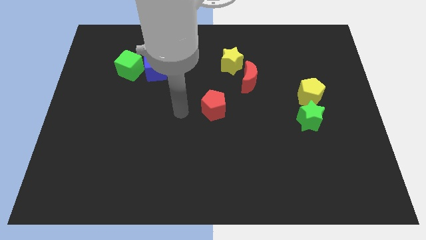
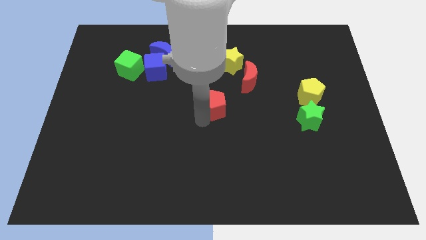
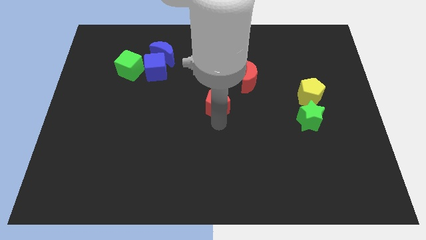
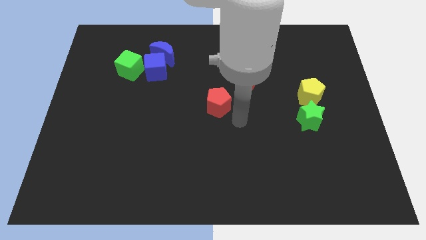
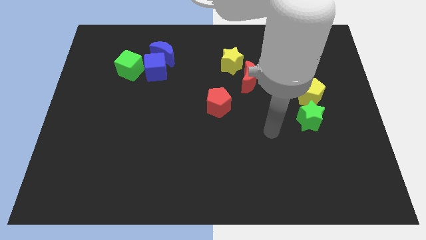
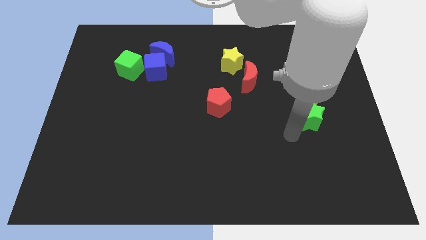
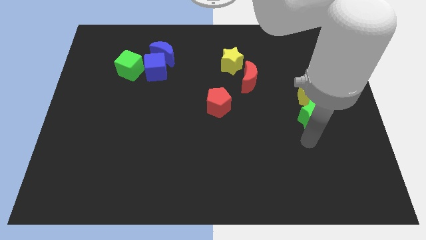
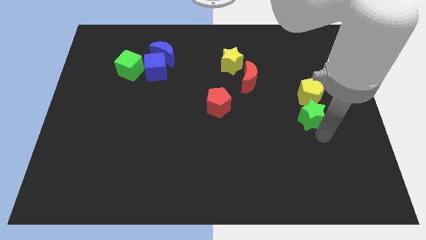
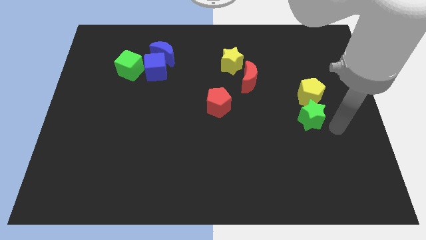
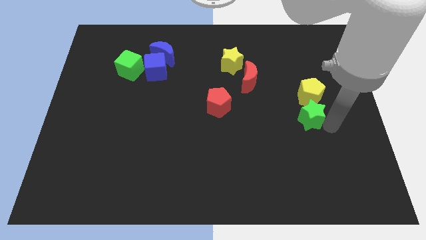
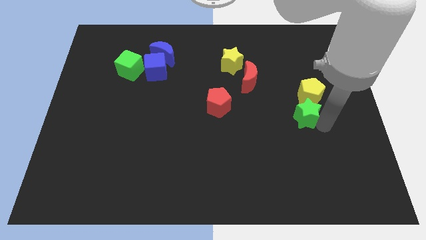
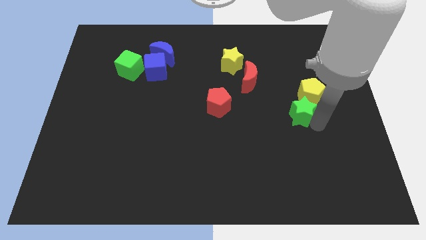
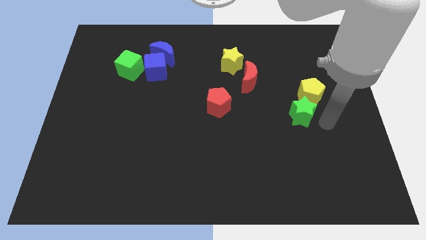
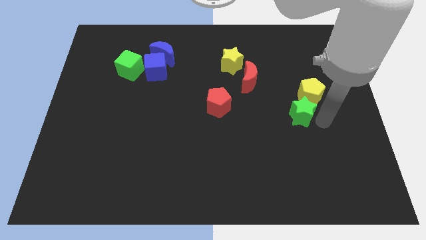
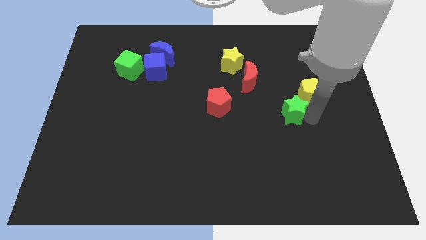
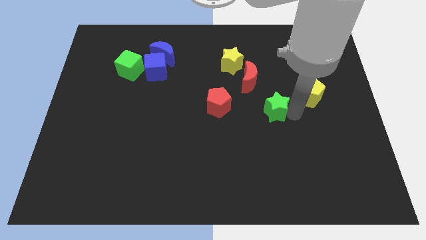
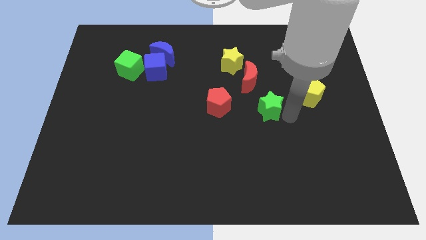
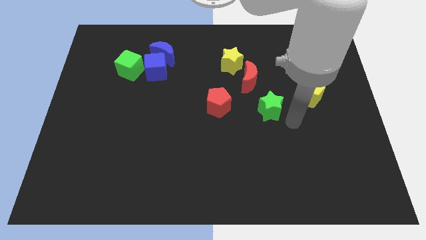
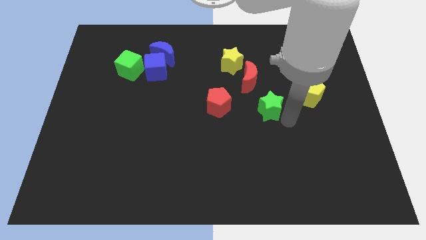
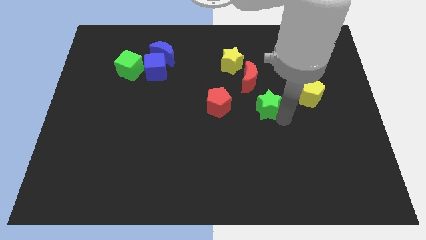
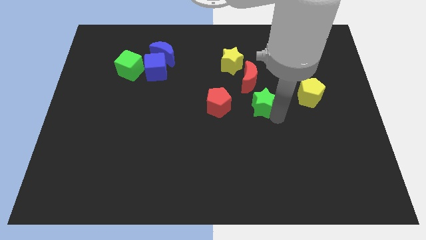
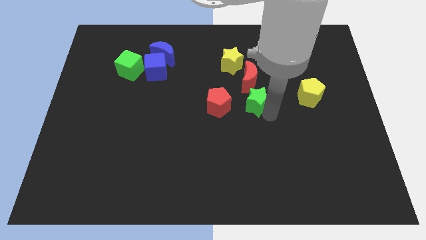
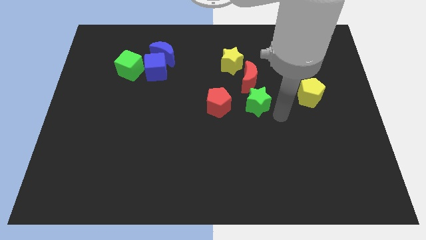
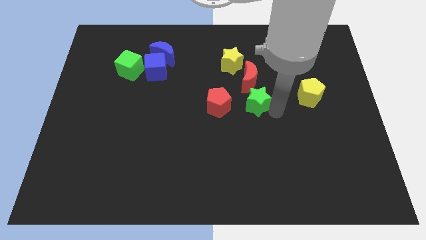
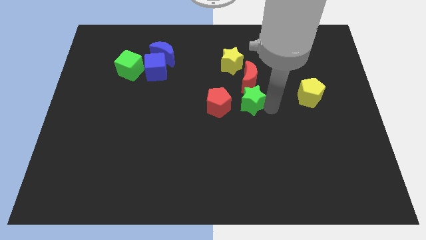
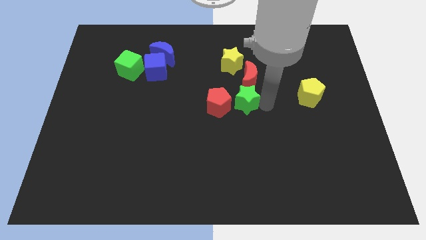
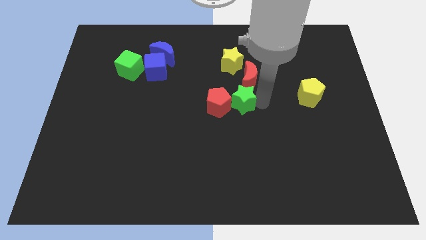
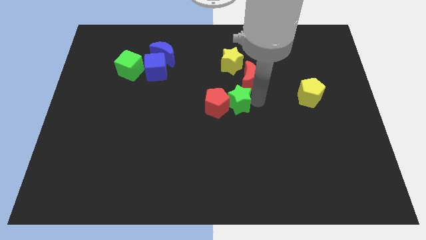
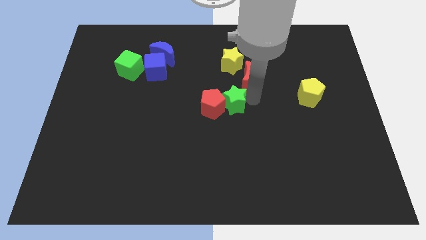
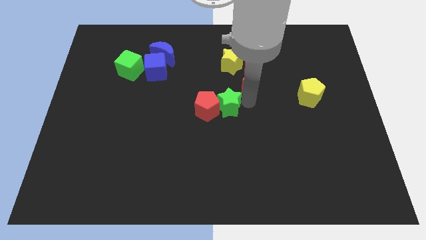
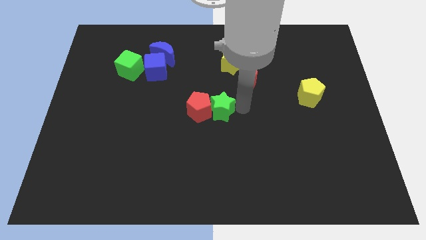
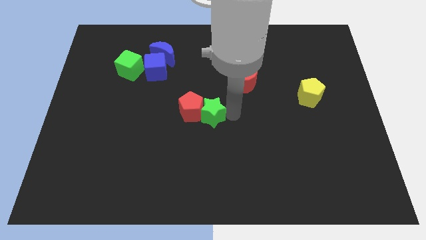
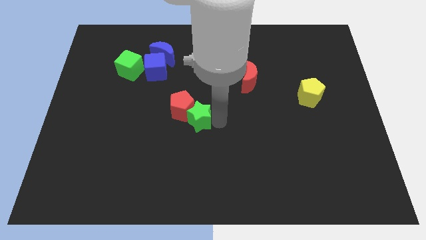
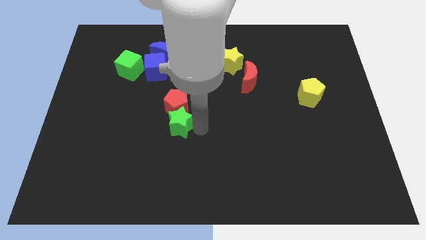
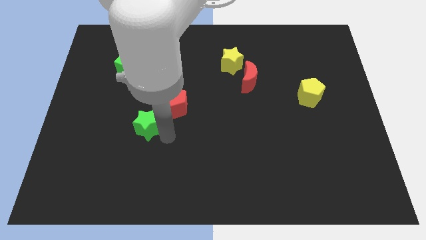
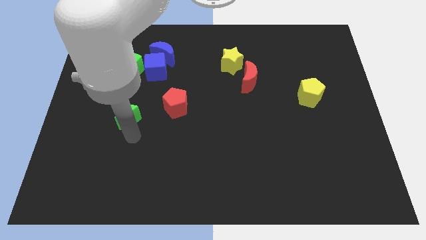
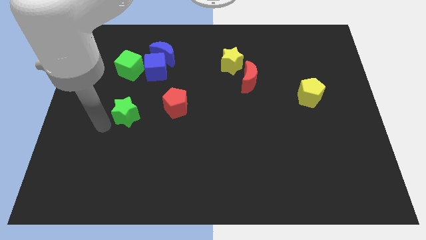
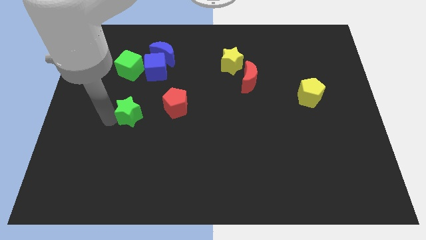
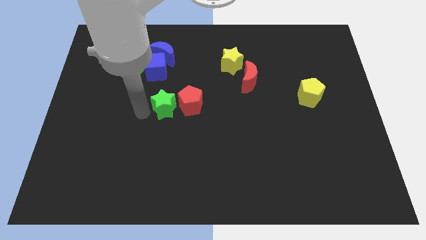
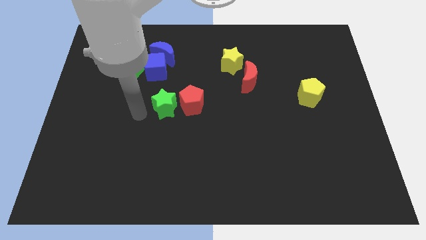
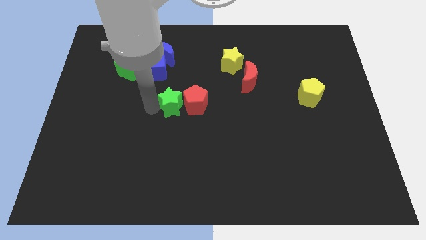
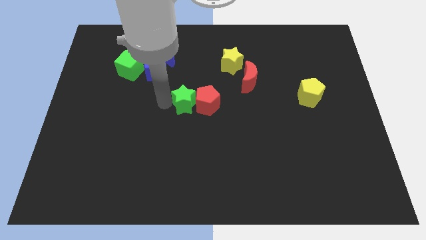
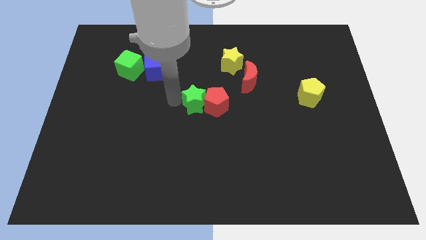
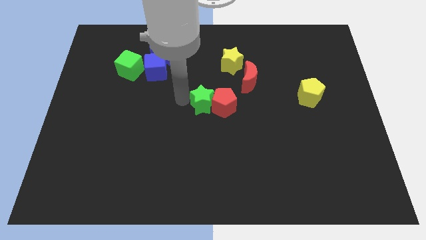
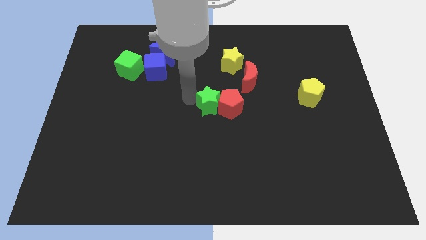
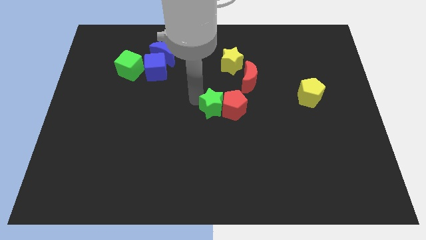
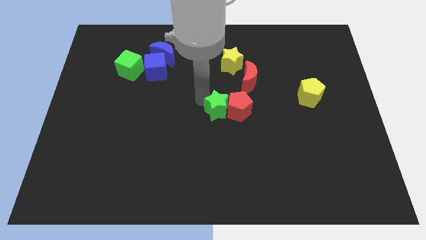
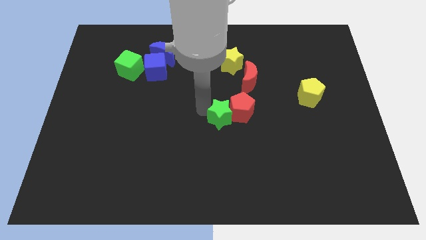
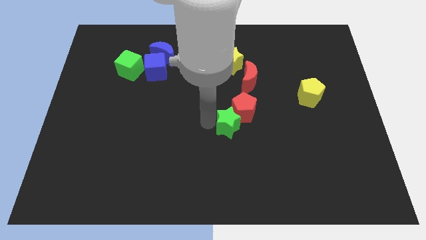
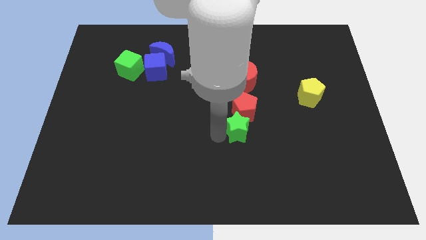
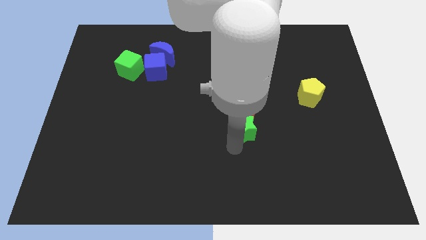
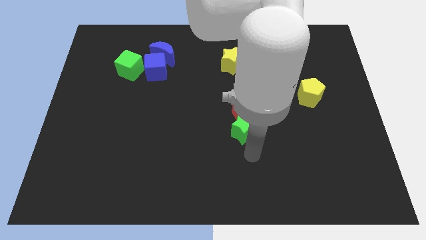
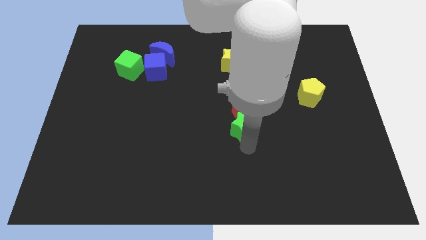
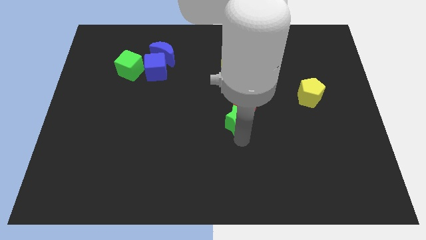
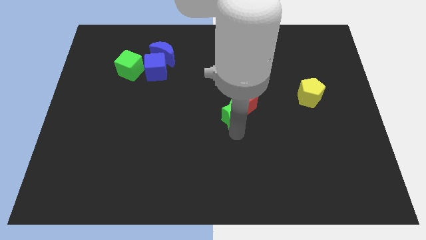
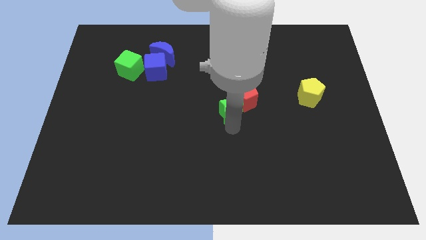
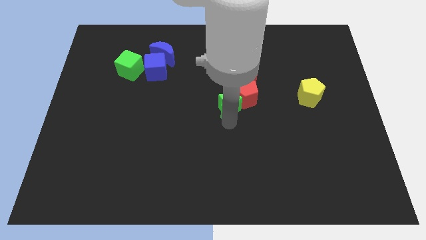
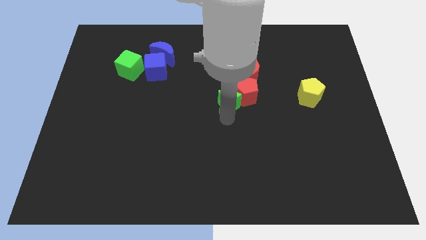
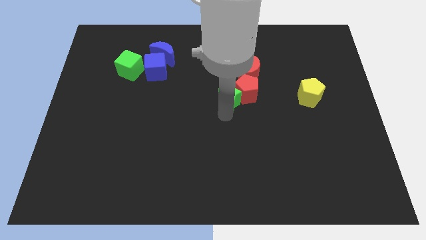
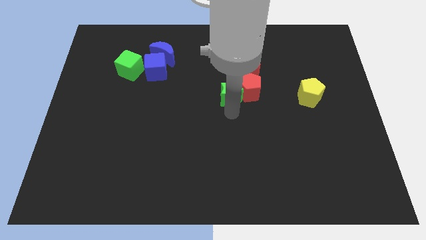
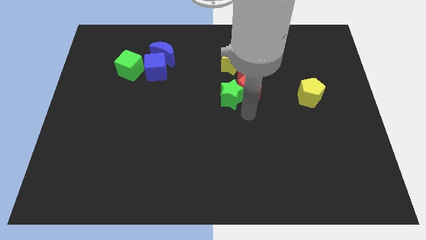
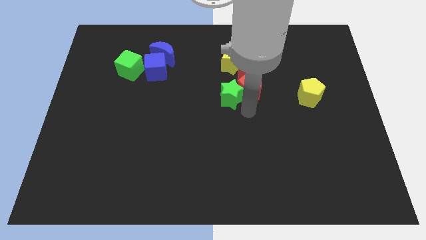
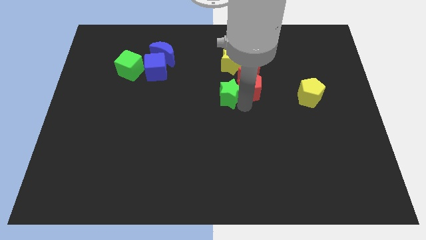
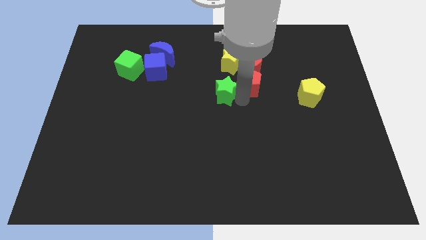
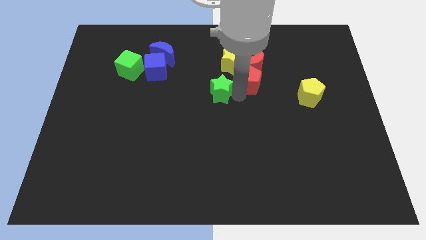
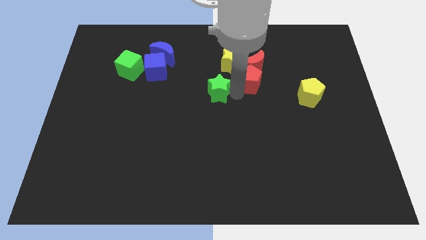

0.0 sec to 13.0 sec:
move the green star to the bottom left side of the yellow star
